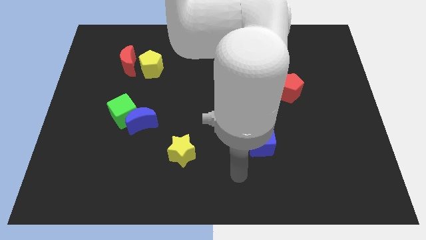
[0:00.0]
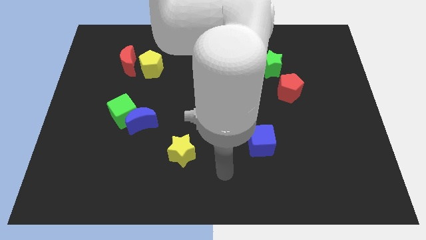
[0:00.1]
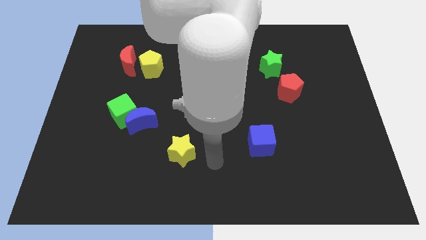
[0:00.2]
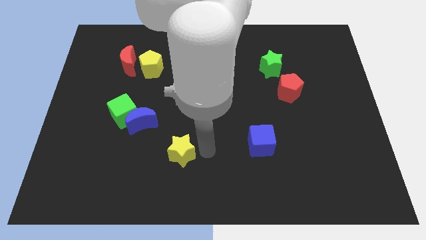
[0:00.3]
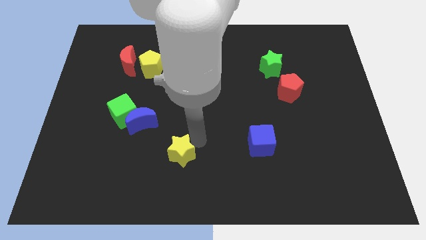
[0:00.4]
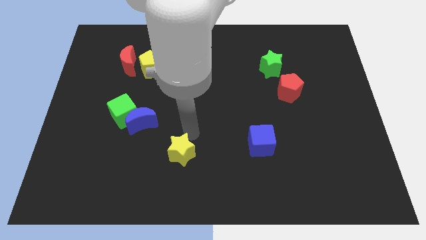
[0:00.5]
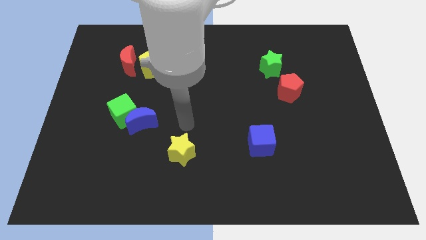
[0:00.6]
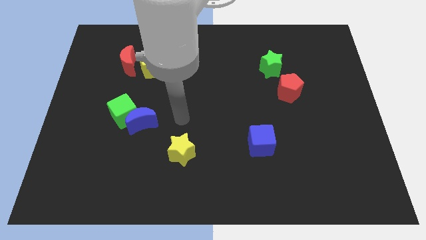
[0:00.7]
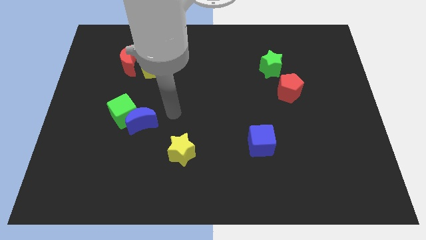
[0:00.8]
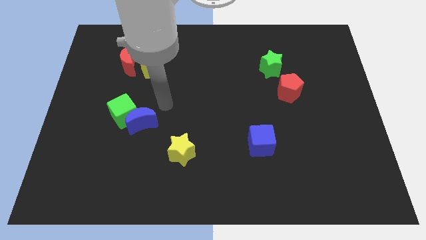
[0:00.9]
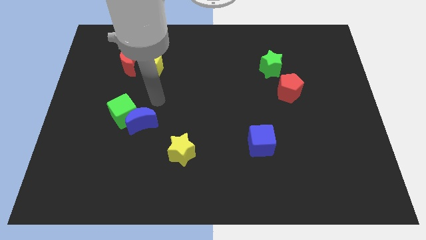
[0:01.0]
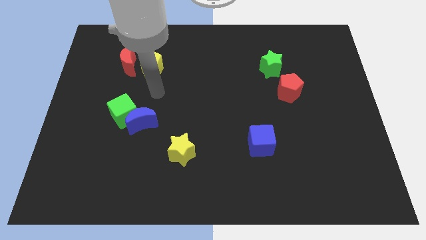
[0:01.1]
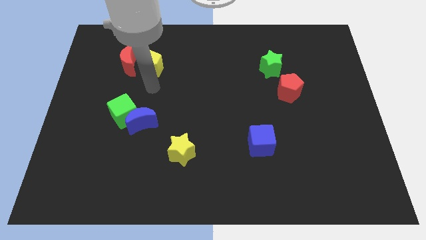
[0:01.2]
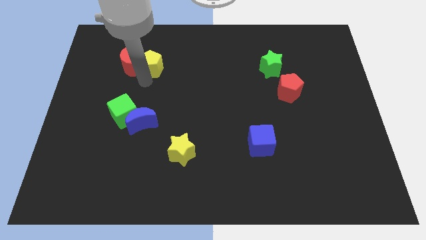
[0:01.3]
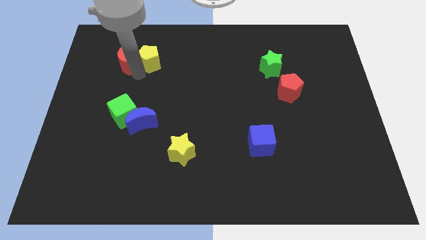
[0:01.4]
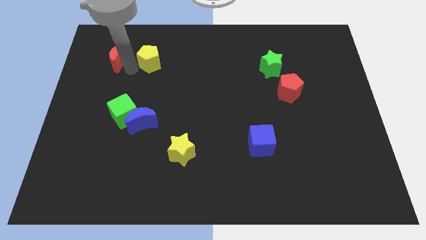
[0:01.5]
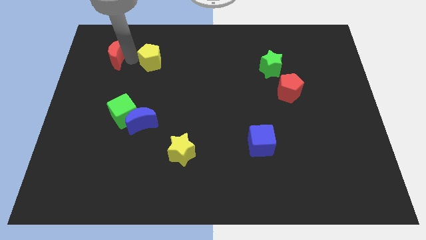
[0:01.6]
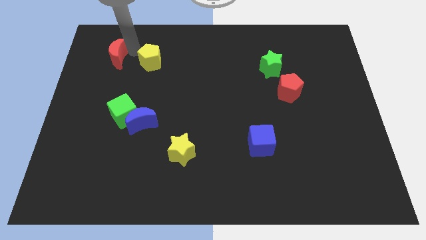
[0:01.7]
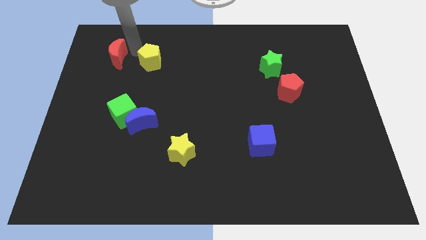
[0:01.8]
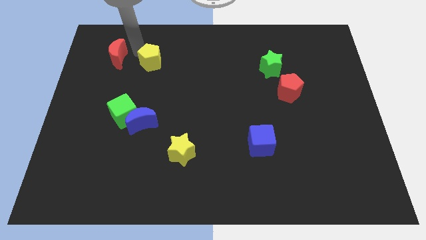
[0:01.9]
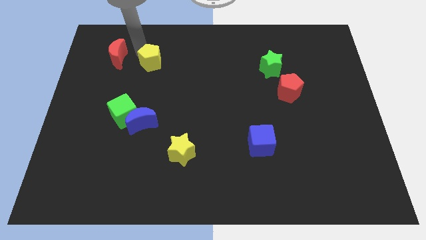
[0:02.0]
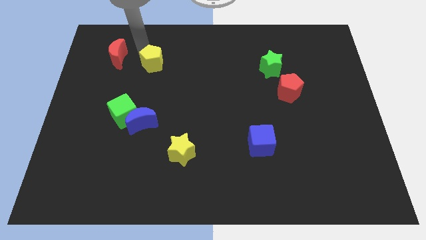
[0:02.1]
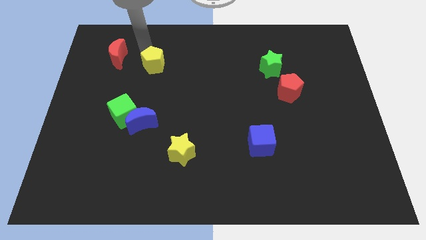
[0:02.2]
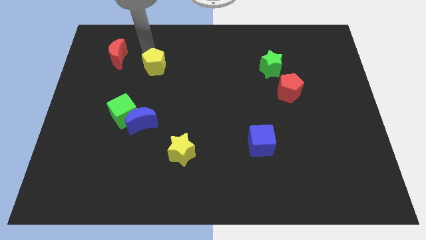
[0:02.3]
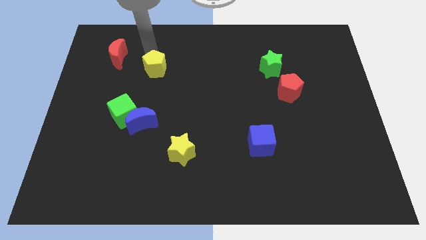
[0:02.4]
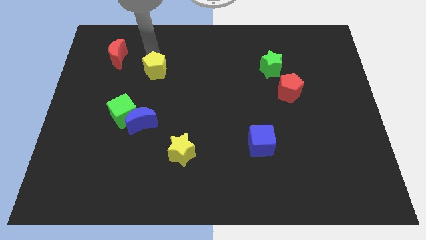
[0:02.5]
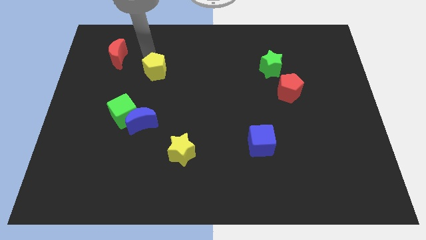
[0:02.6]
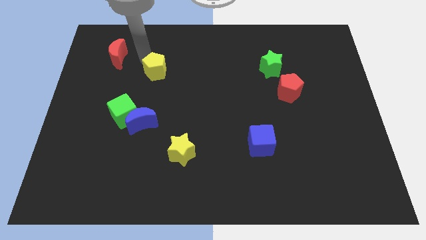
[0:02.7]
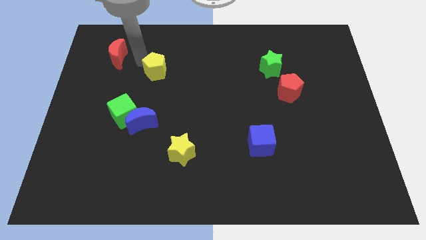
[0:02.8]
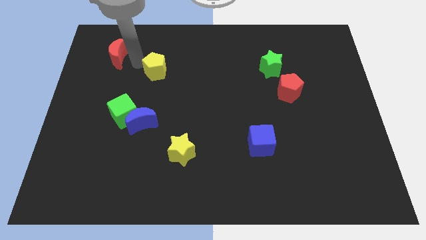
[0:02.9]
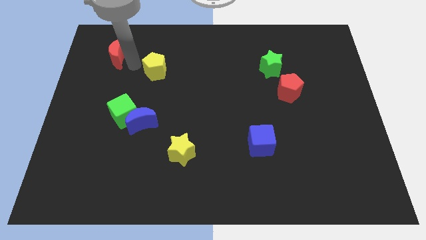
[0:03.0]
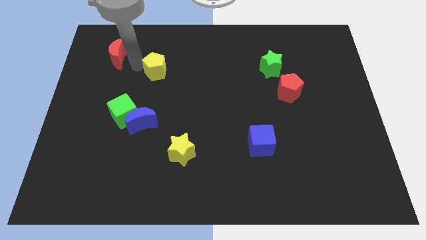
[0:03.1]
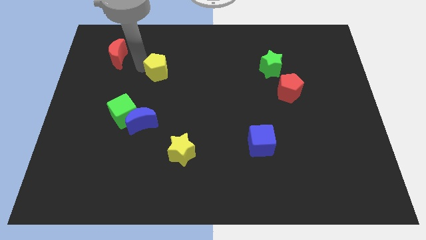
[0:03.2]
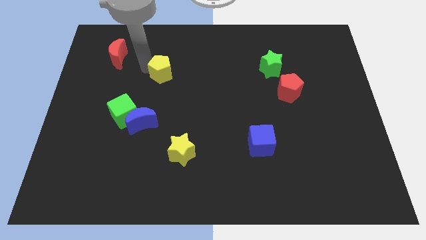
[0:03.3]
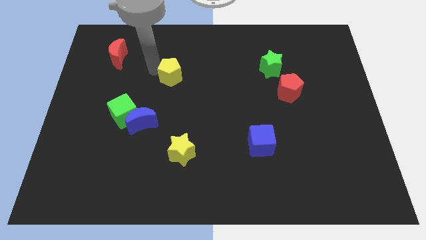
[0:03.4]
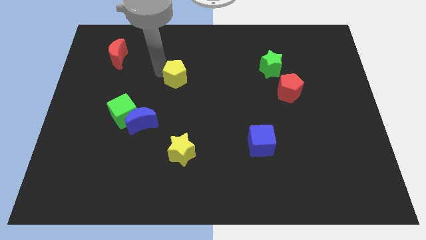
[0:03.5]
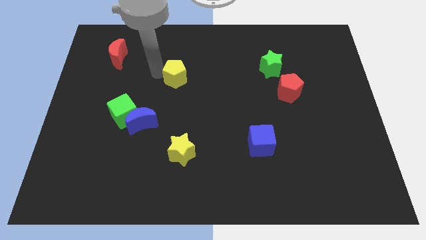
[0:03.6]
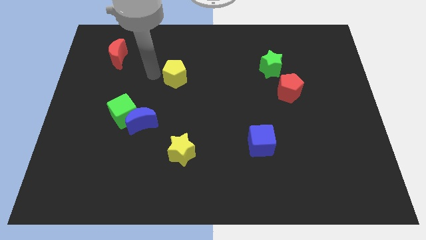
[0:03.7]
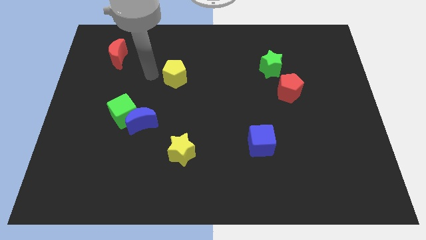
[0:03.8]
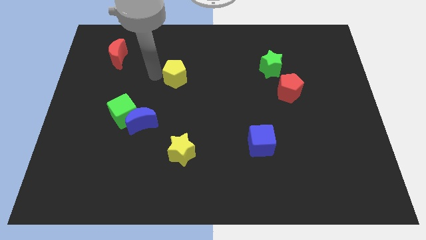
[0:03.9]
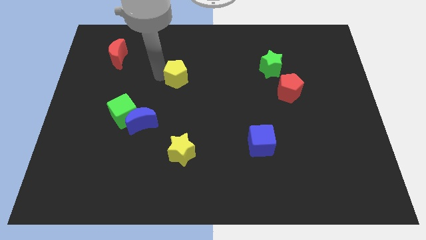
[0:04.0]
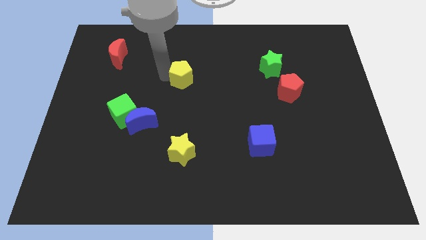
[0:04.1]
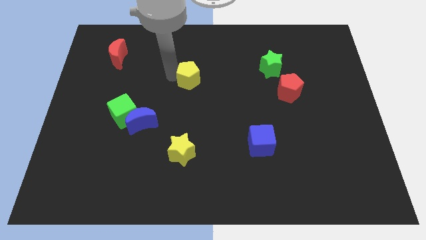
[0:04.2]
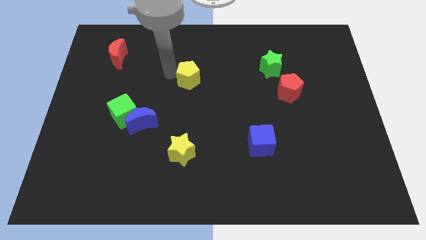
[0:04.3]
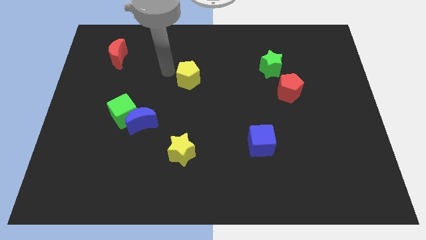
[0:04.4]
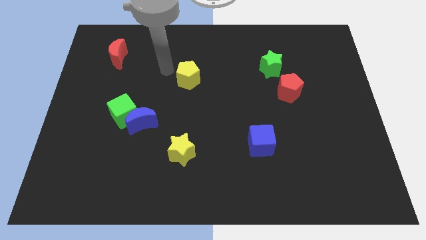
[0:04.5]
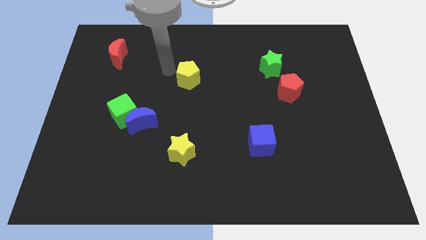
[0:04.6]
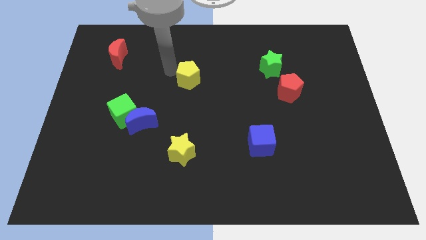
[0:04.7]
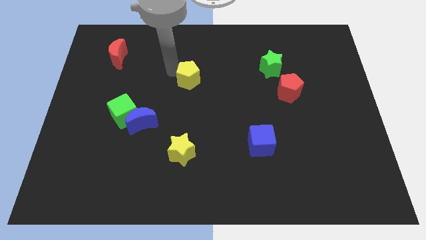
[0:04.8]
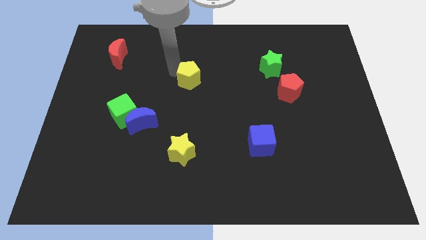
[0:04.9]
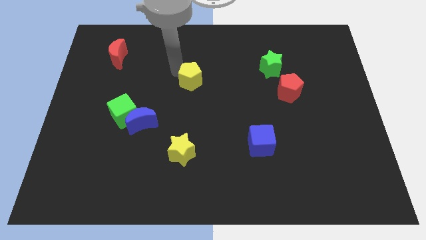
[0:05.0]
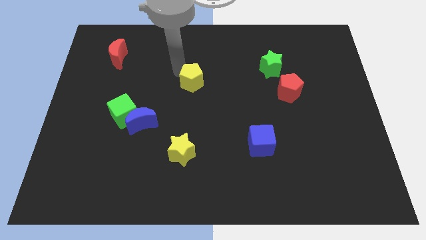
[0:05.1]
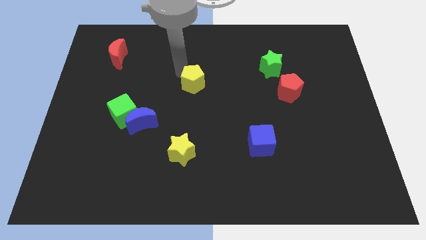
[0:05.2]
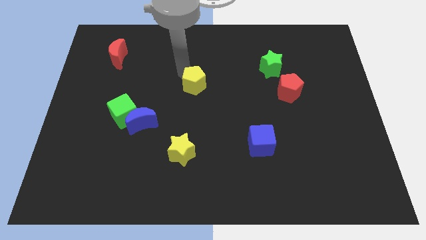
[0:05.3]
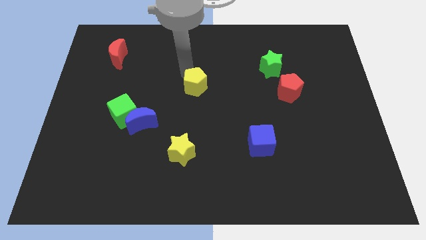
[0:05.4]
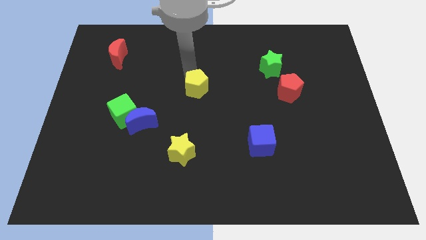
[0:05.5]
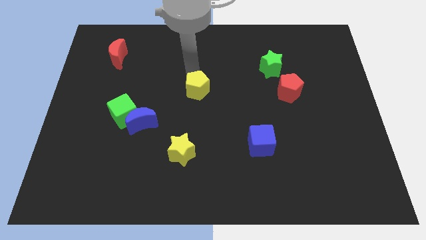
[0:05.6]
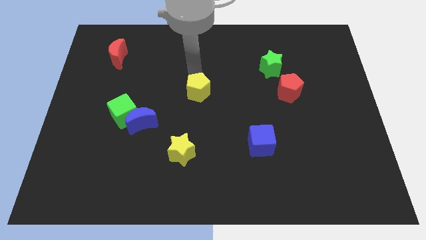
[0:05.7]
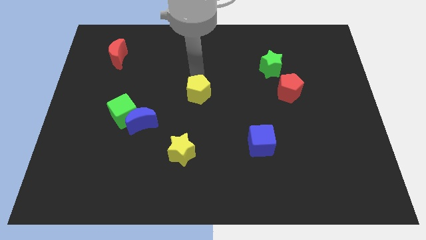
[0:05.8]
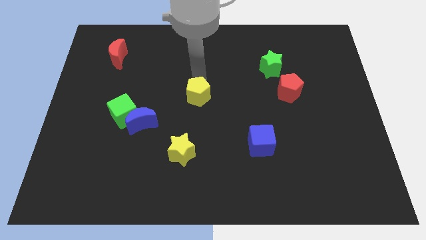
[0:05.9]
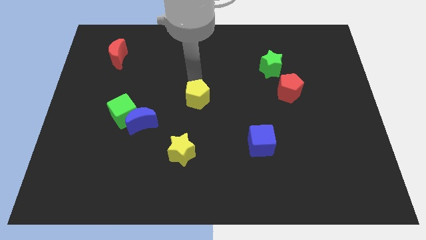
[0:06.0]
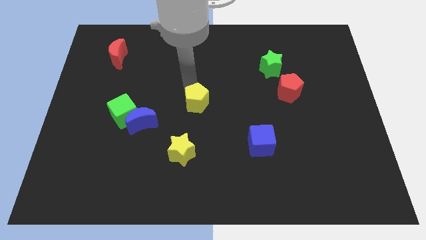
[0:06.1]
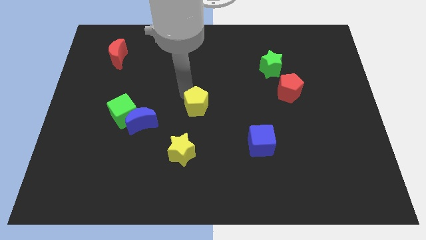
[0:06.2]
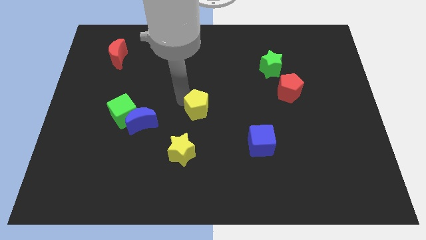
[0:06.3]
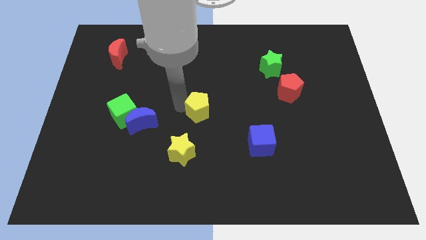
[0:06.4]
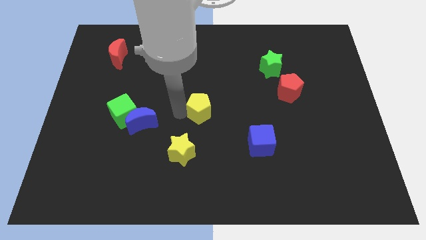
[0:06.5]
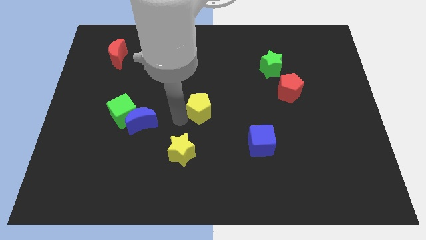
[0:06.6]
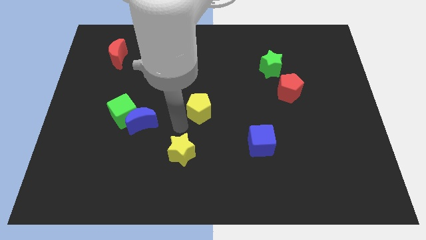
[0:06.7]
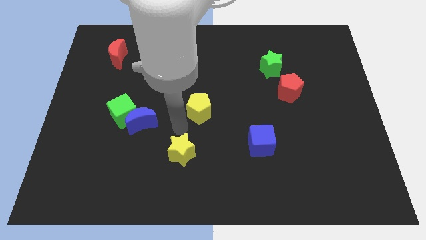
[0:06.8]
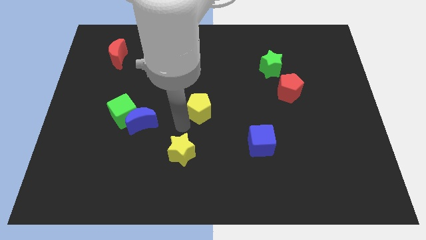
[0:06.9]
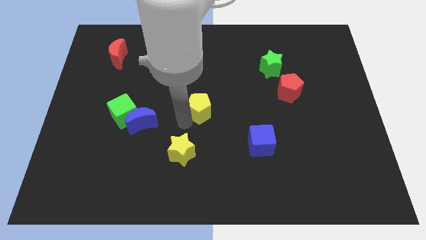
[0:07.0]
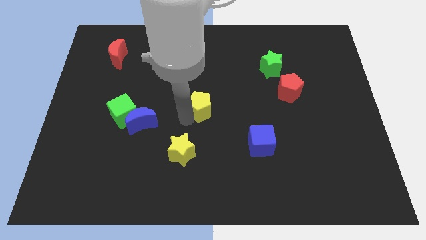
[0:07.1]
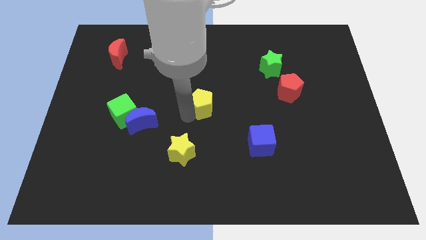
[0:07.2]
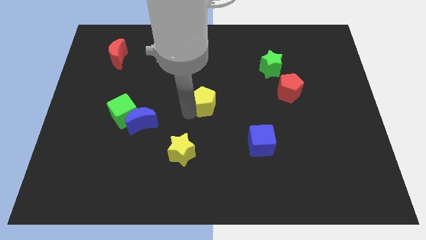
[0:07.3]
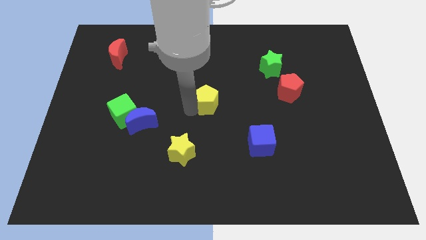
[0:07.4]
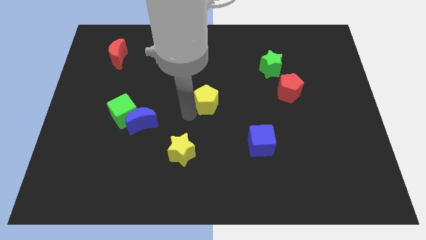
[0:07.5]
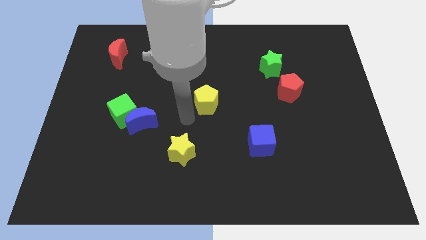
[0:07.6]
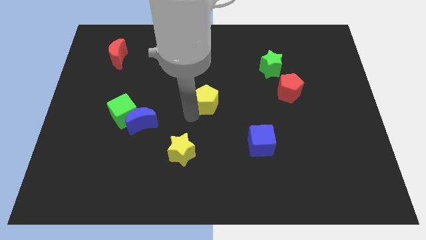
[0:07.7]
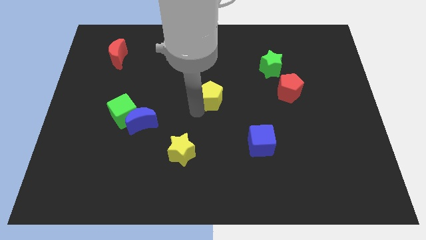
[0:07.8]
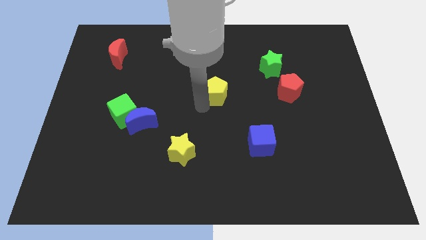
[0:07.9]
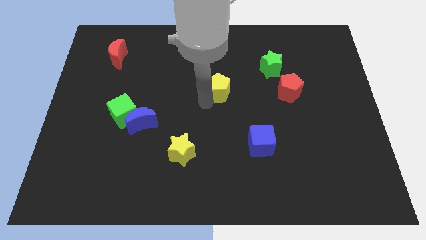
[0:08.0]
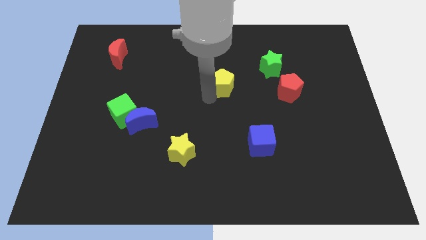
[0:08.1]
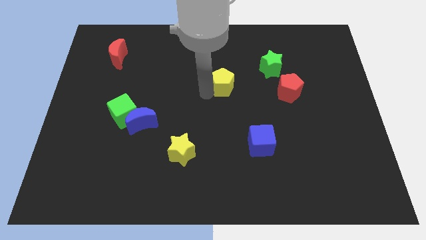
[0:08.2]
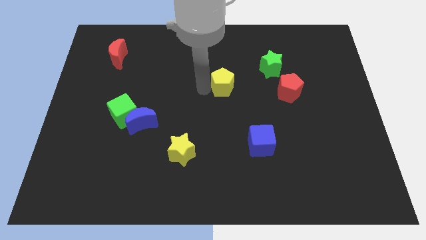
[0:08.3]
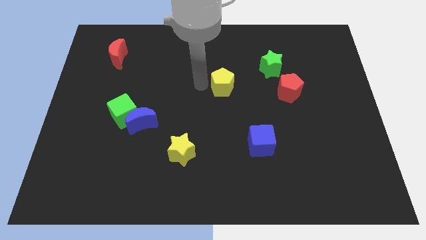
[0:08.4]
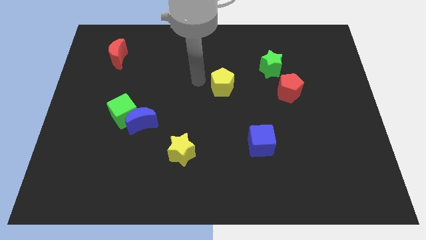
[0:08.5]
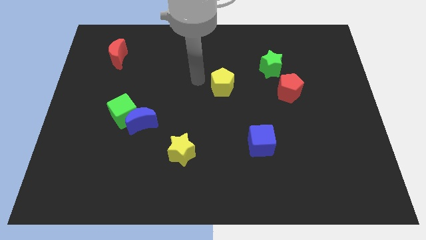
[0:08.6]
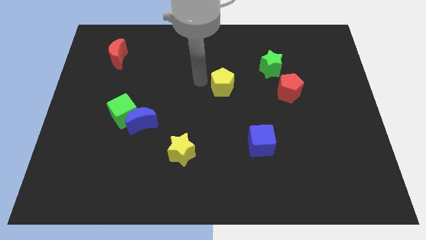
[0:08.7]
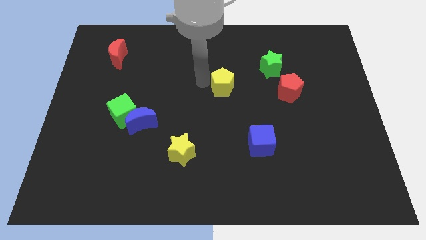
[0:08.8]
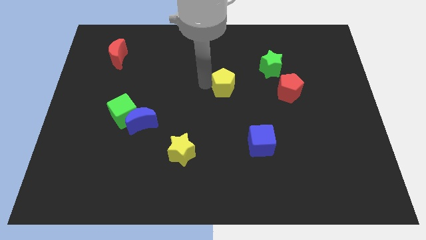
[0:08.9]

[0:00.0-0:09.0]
move the yellow pentagon to the left of the red pentagon
